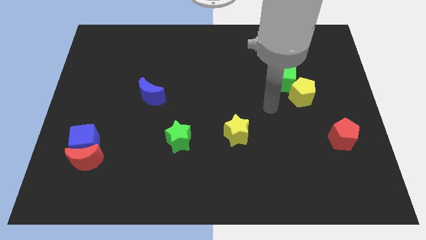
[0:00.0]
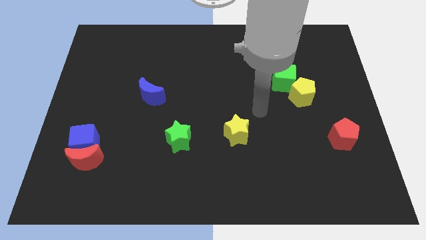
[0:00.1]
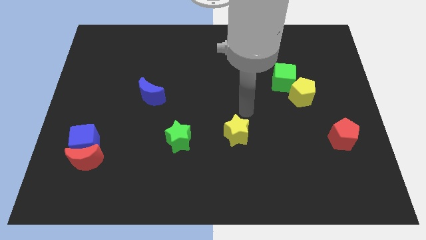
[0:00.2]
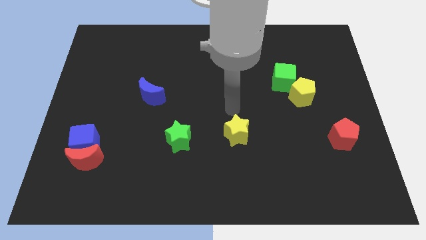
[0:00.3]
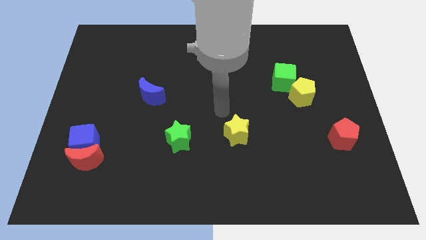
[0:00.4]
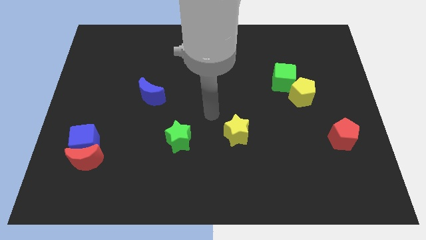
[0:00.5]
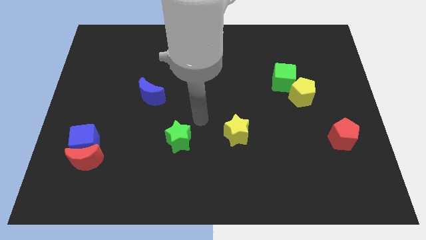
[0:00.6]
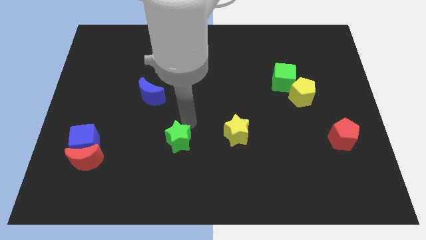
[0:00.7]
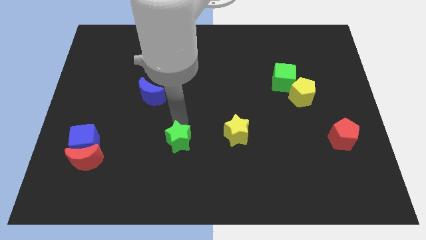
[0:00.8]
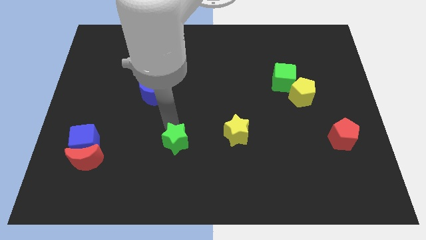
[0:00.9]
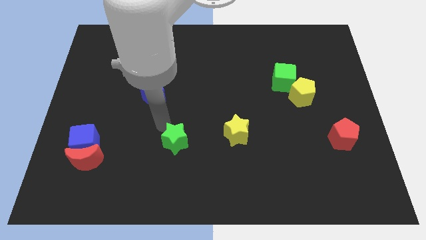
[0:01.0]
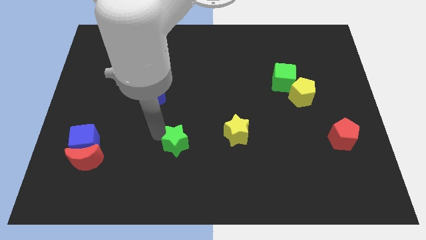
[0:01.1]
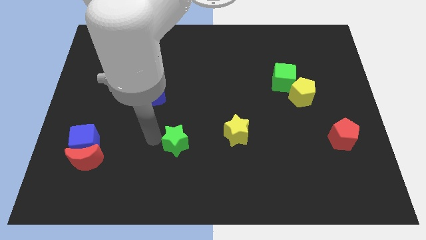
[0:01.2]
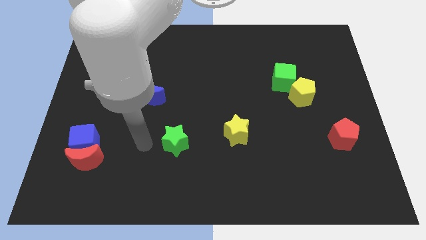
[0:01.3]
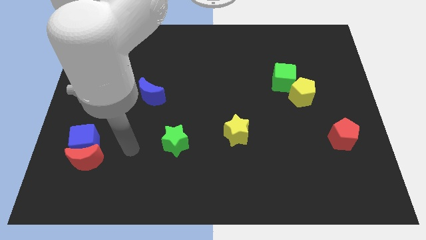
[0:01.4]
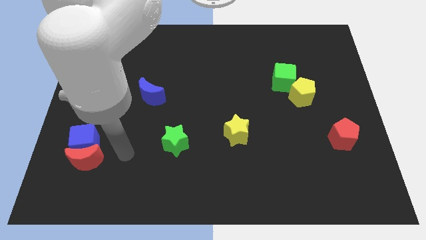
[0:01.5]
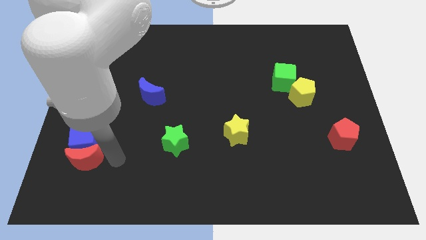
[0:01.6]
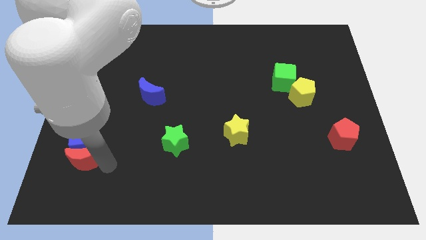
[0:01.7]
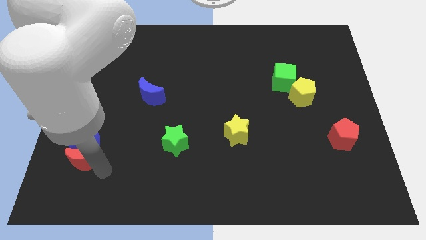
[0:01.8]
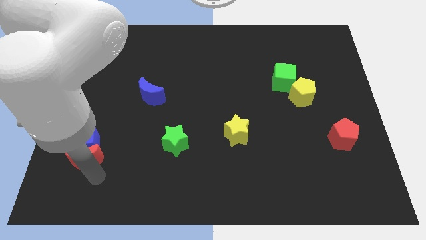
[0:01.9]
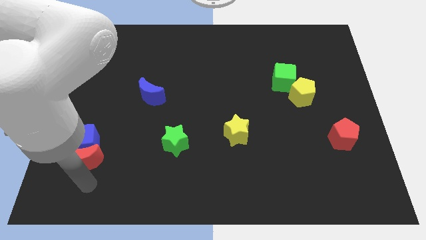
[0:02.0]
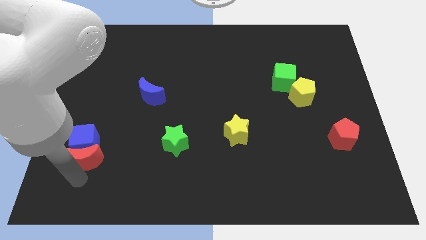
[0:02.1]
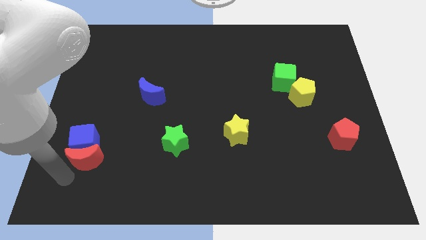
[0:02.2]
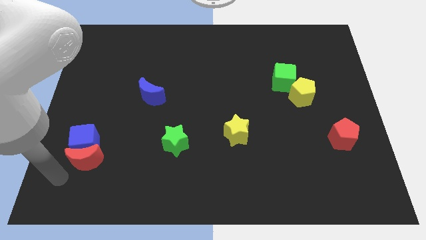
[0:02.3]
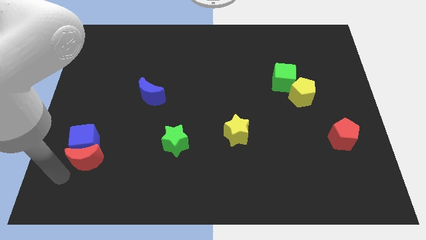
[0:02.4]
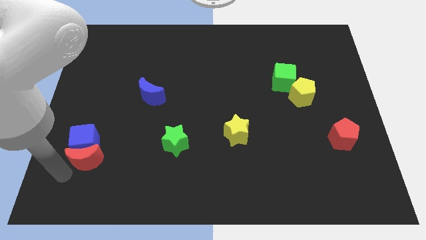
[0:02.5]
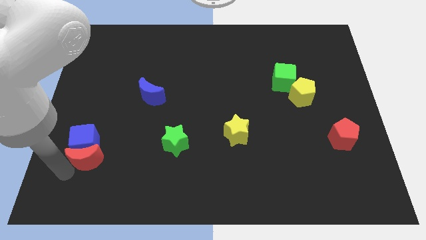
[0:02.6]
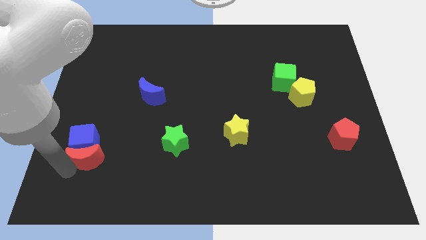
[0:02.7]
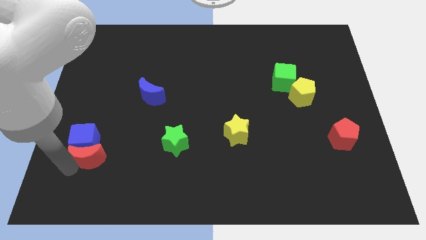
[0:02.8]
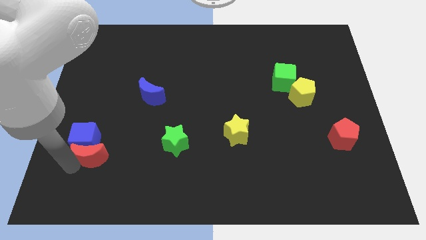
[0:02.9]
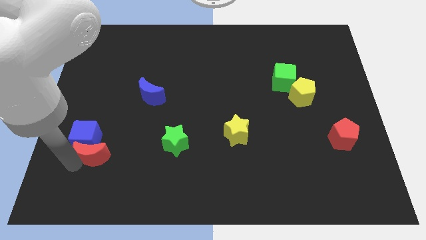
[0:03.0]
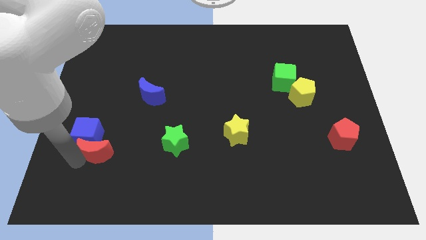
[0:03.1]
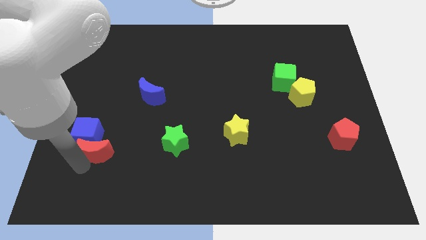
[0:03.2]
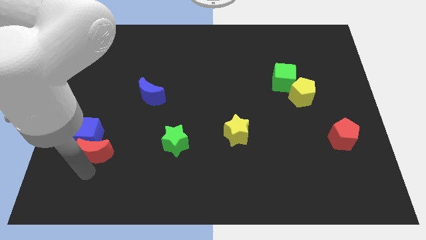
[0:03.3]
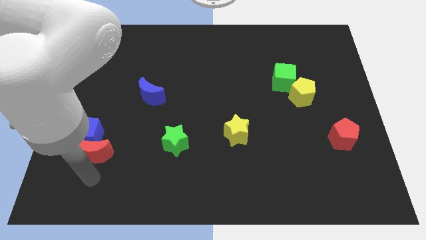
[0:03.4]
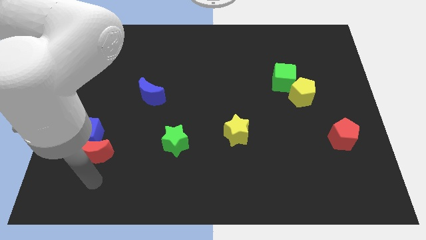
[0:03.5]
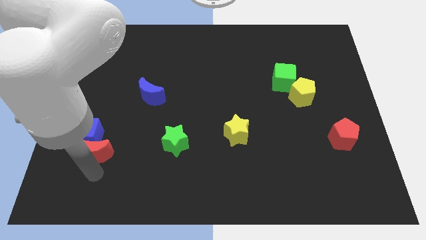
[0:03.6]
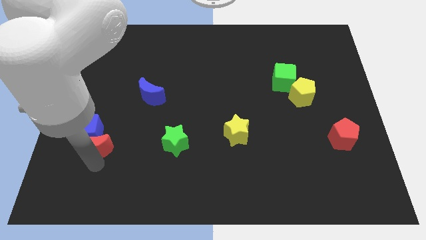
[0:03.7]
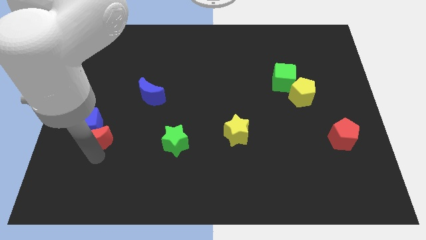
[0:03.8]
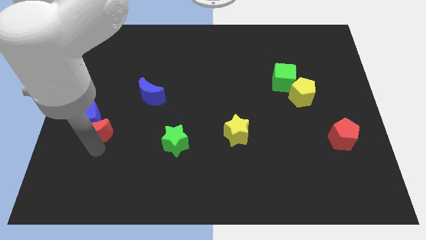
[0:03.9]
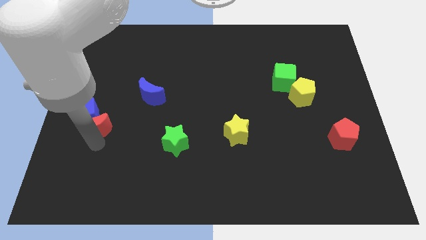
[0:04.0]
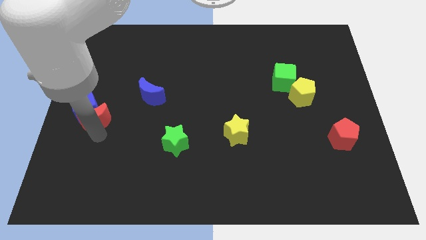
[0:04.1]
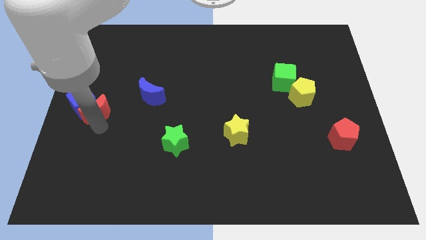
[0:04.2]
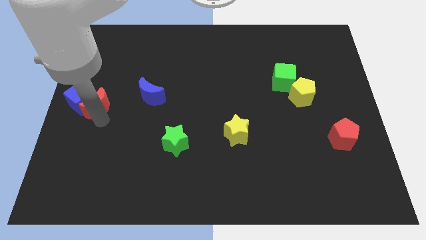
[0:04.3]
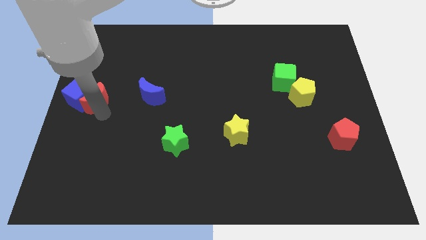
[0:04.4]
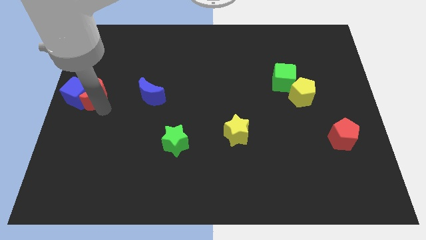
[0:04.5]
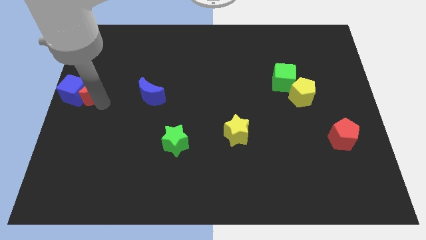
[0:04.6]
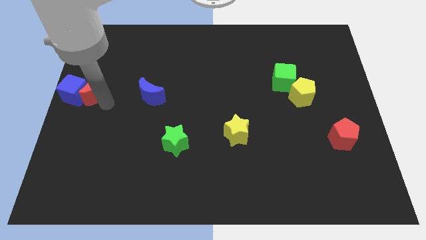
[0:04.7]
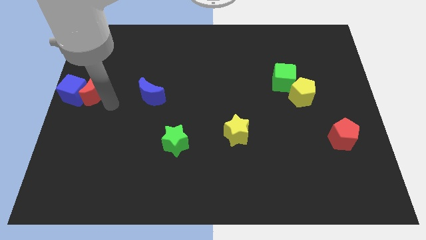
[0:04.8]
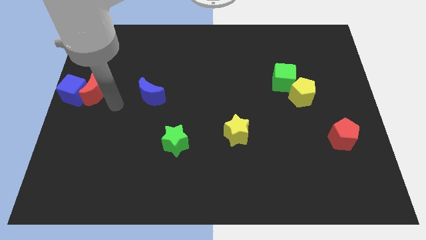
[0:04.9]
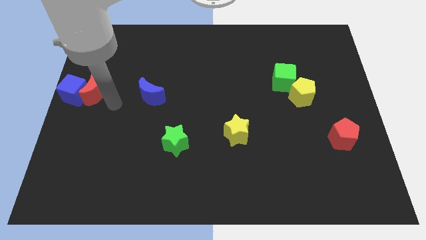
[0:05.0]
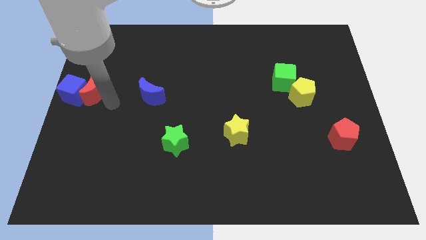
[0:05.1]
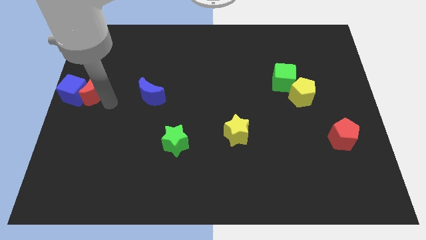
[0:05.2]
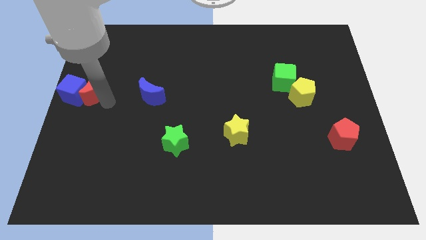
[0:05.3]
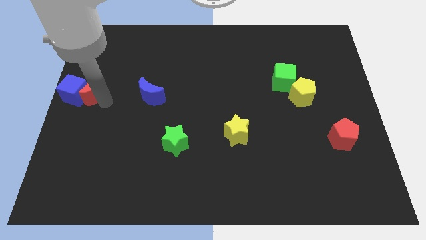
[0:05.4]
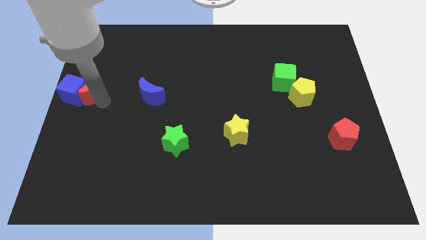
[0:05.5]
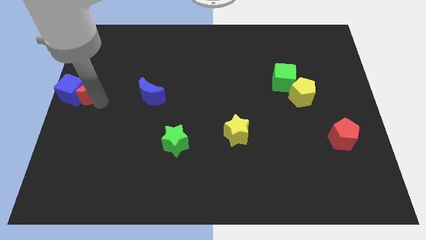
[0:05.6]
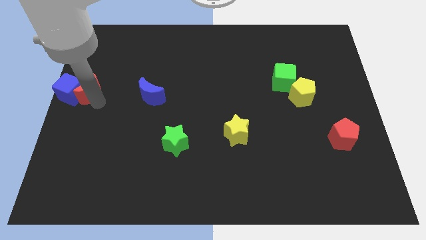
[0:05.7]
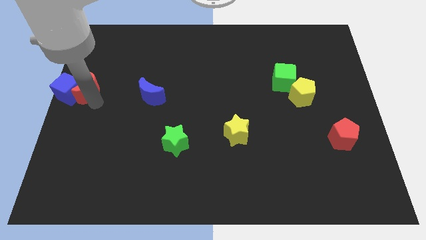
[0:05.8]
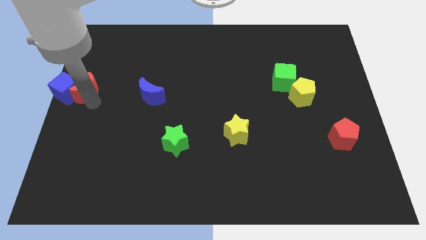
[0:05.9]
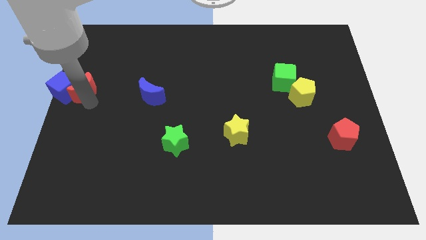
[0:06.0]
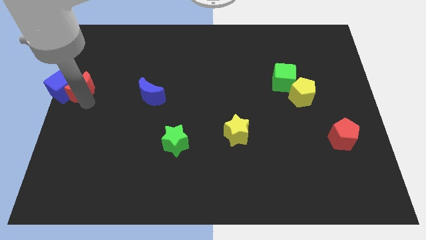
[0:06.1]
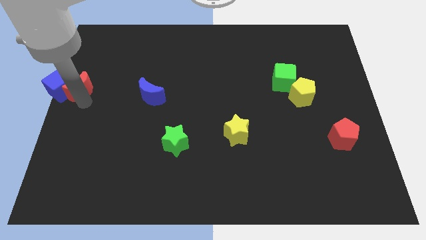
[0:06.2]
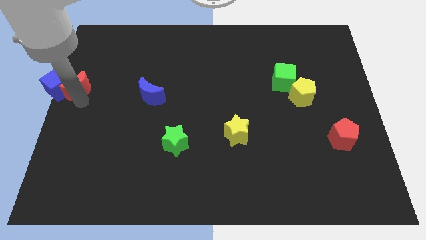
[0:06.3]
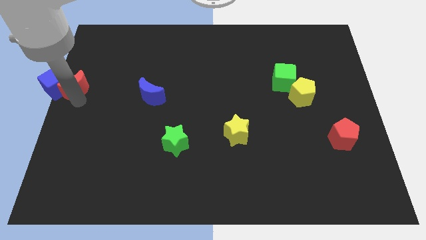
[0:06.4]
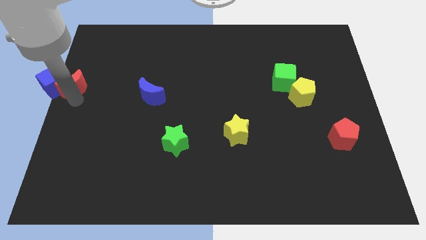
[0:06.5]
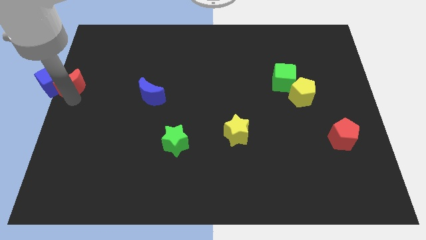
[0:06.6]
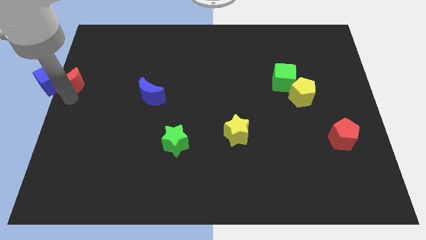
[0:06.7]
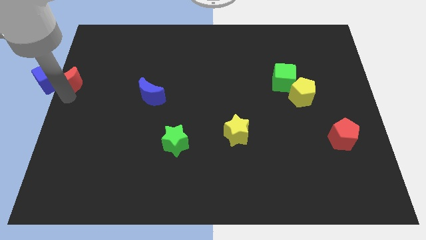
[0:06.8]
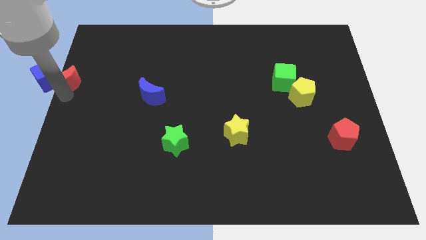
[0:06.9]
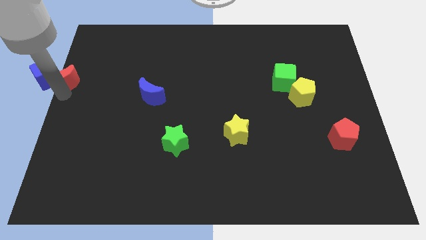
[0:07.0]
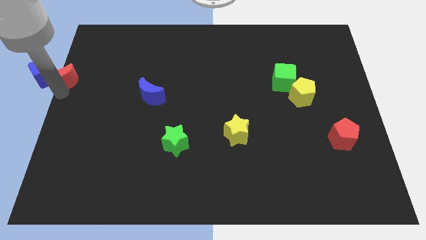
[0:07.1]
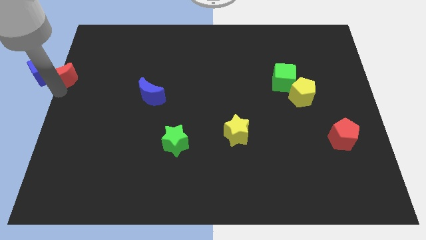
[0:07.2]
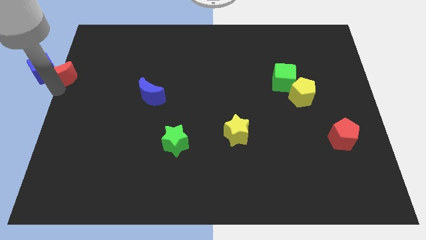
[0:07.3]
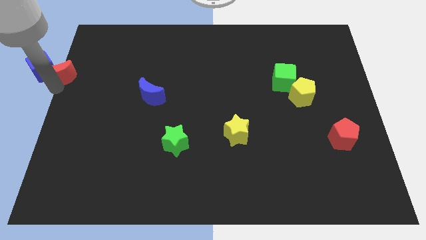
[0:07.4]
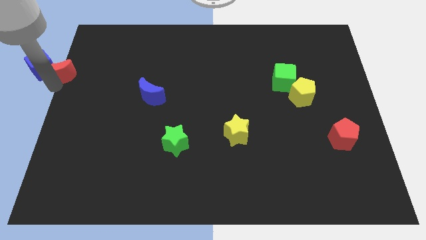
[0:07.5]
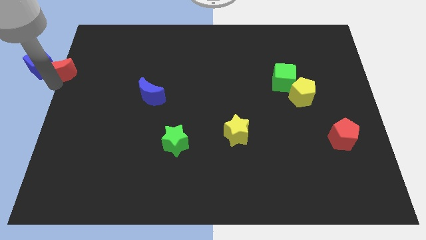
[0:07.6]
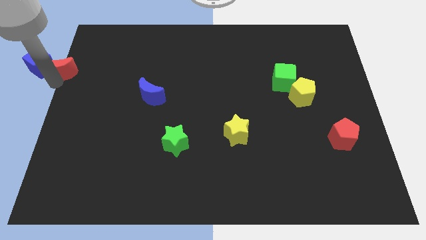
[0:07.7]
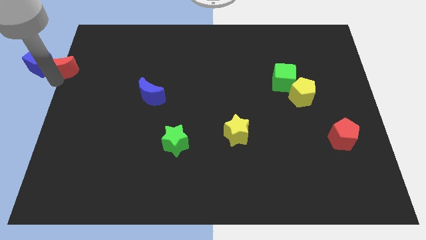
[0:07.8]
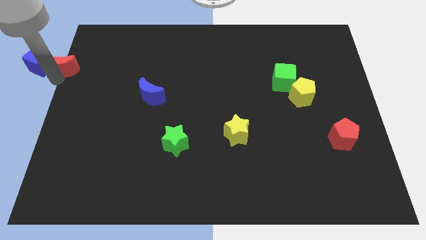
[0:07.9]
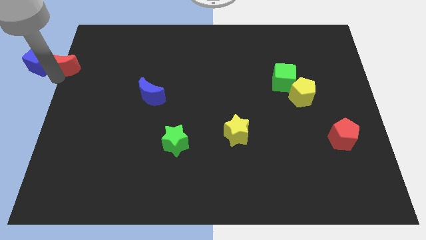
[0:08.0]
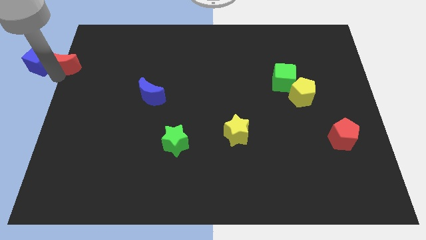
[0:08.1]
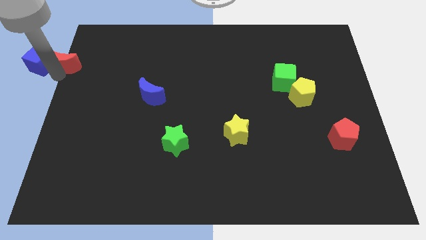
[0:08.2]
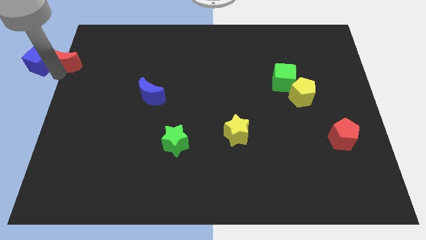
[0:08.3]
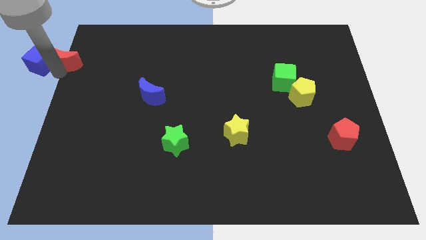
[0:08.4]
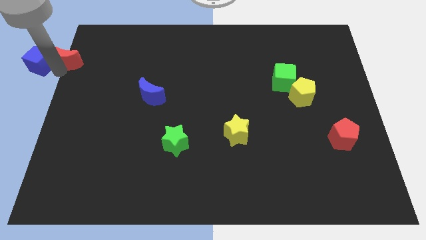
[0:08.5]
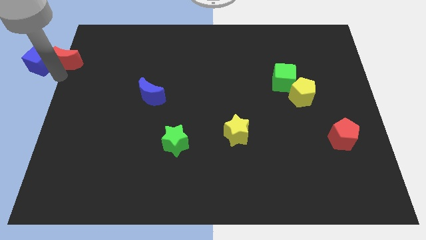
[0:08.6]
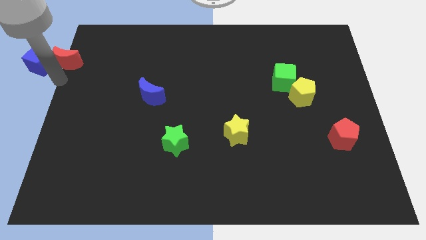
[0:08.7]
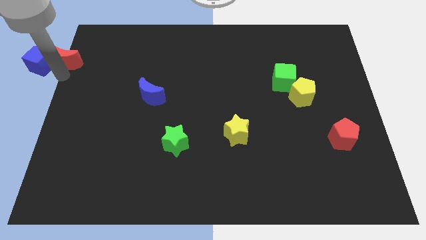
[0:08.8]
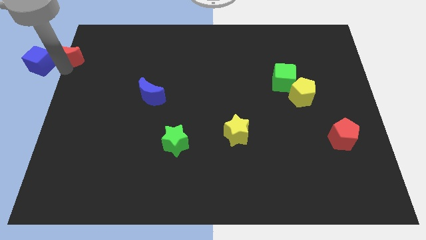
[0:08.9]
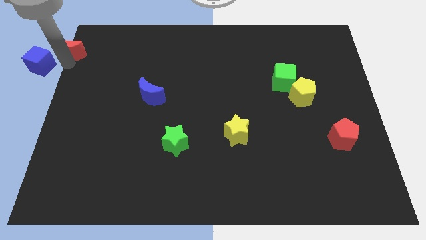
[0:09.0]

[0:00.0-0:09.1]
slide the red moon to the top left of the board
